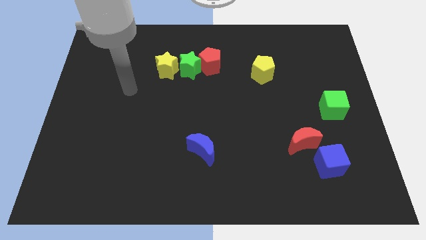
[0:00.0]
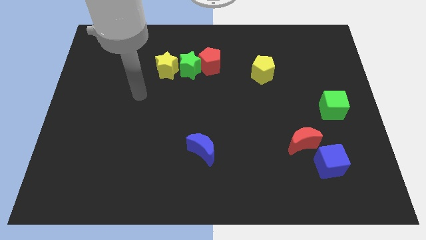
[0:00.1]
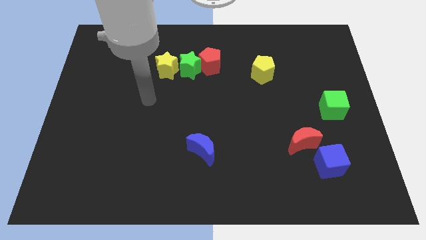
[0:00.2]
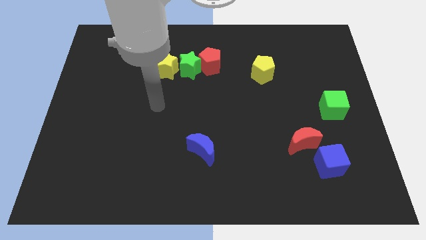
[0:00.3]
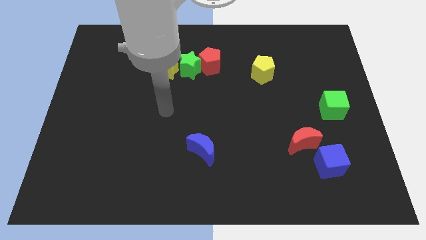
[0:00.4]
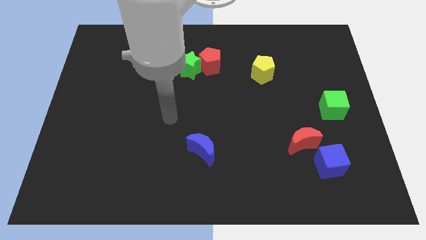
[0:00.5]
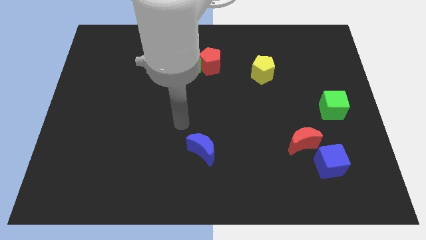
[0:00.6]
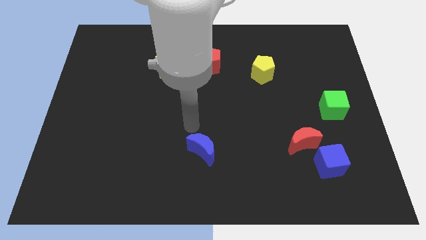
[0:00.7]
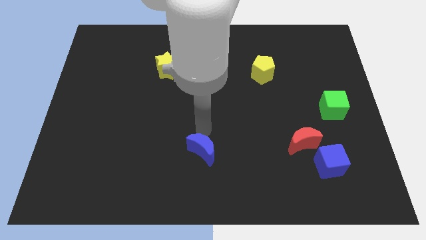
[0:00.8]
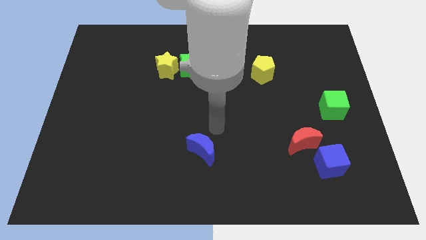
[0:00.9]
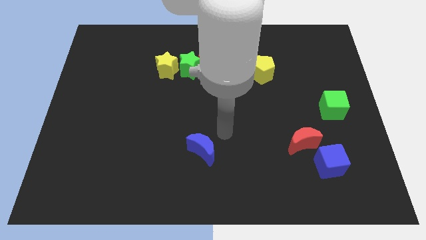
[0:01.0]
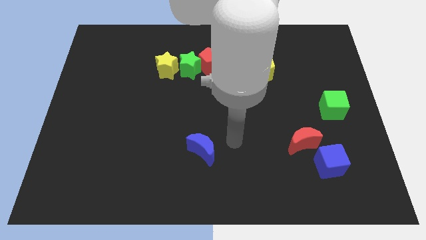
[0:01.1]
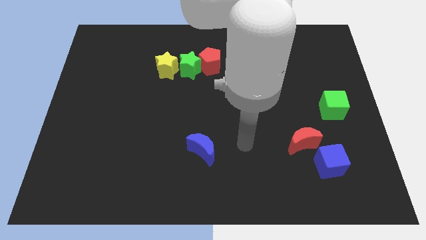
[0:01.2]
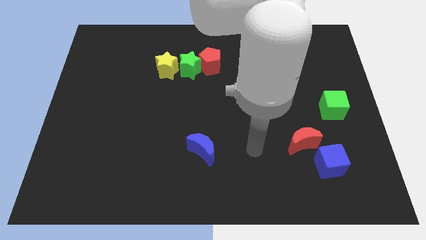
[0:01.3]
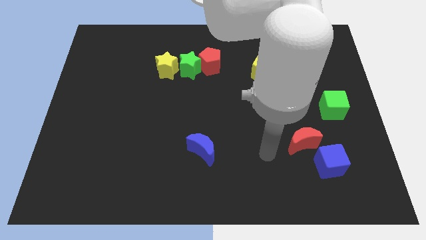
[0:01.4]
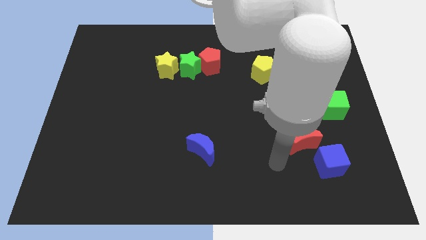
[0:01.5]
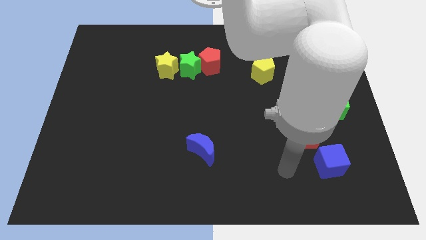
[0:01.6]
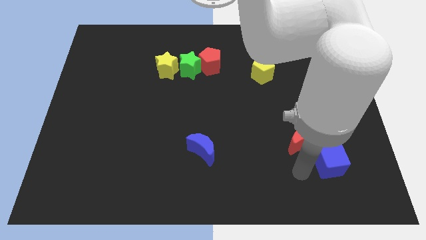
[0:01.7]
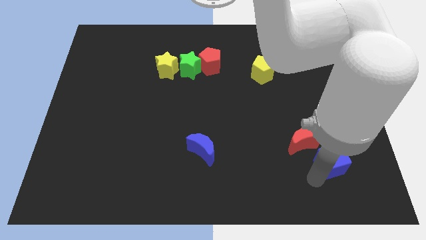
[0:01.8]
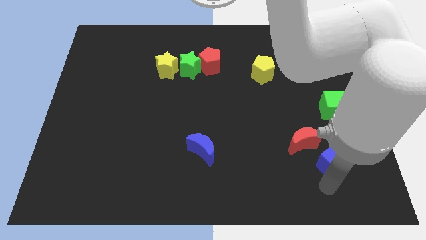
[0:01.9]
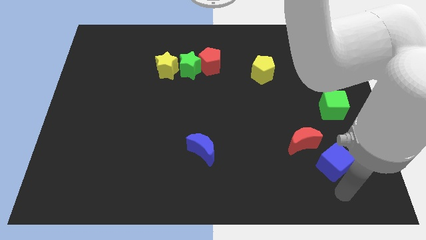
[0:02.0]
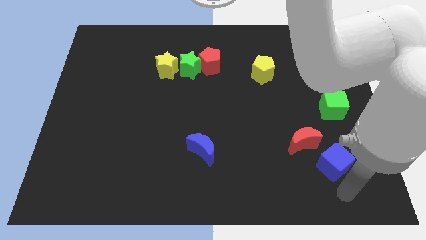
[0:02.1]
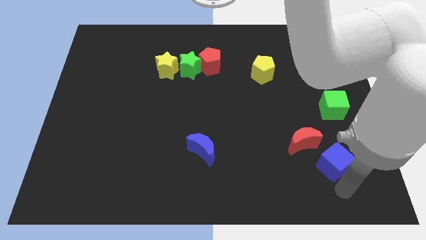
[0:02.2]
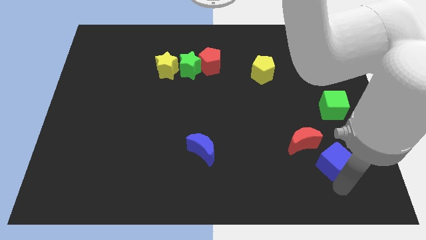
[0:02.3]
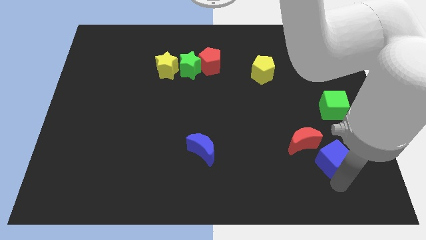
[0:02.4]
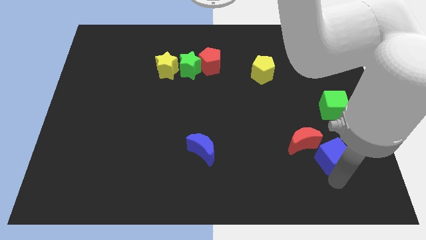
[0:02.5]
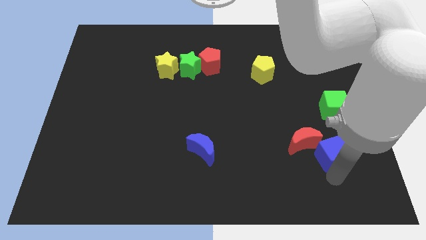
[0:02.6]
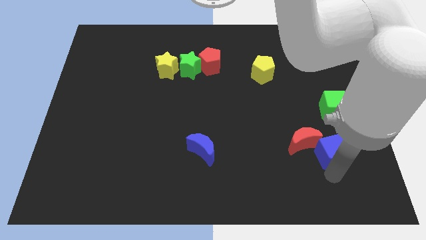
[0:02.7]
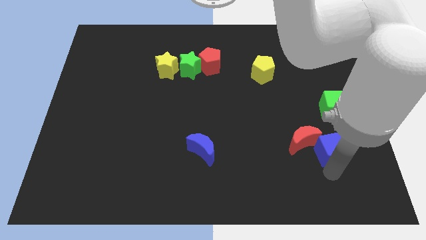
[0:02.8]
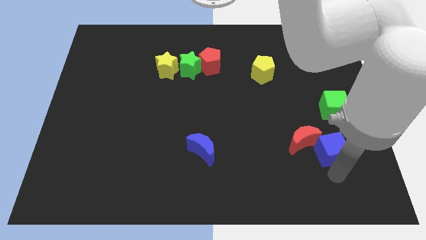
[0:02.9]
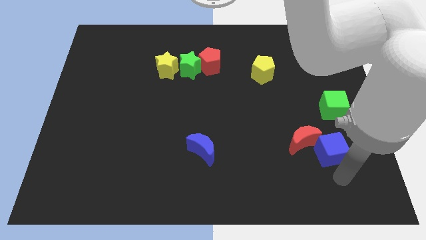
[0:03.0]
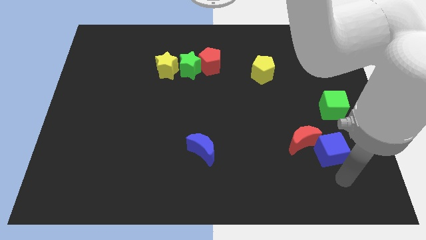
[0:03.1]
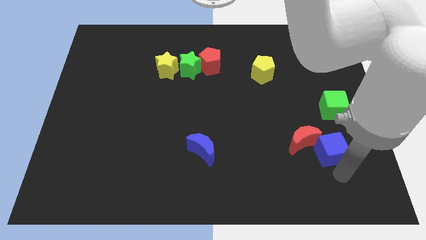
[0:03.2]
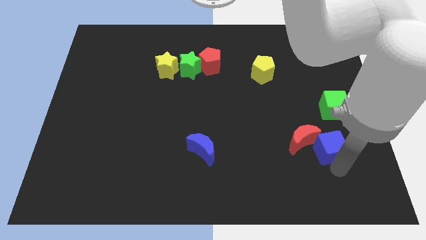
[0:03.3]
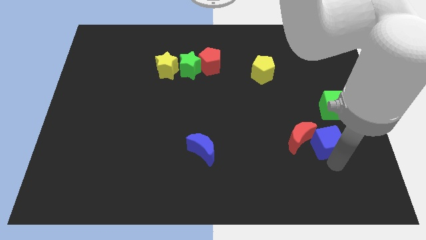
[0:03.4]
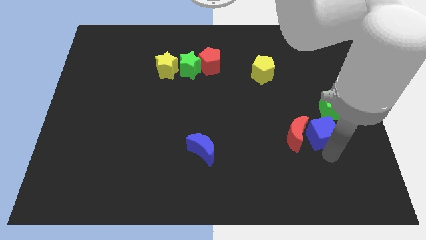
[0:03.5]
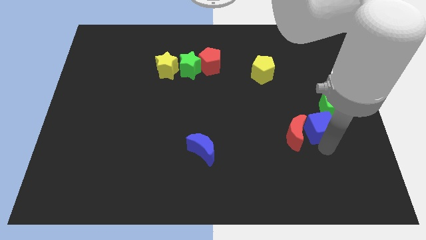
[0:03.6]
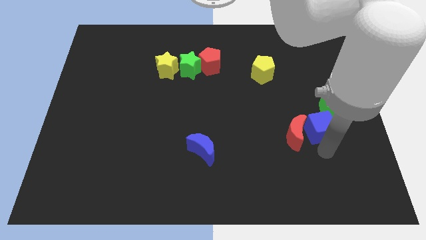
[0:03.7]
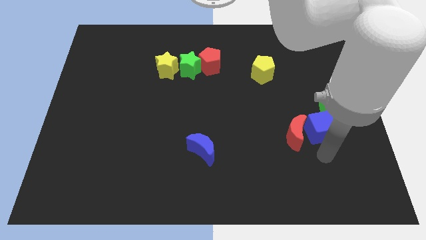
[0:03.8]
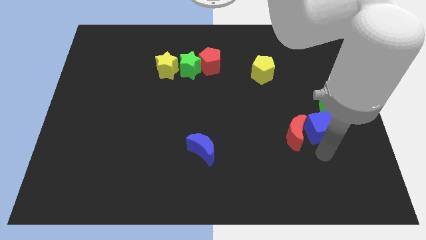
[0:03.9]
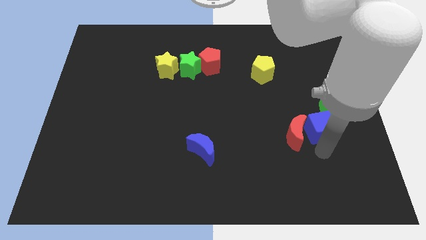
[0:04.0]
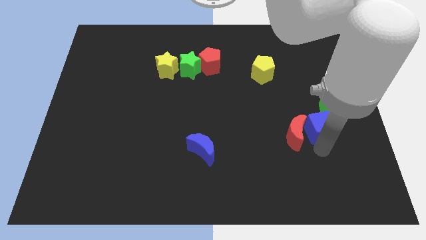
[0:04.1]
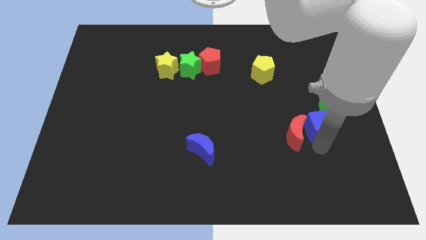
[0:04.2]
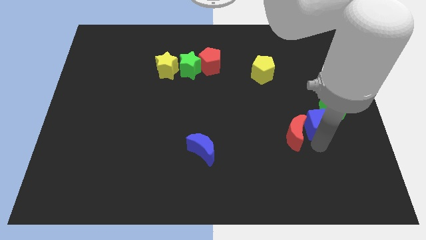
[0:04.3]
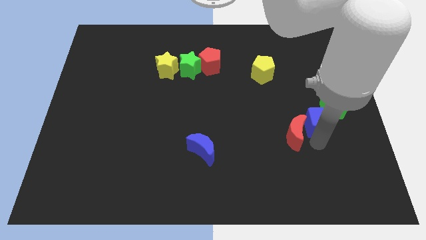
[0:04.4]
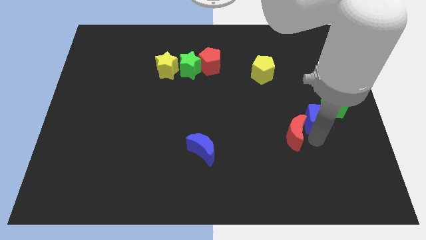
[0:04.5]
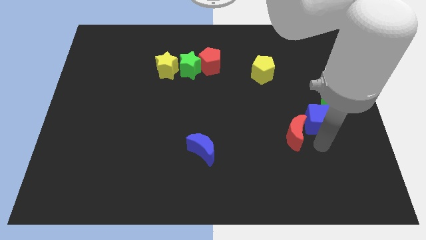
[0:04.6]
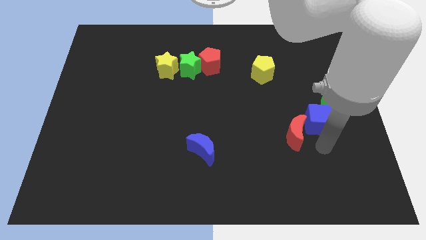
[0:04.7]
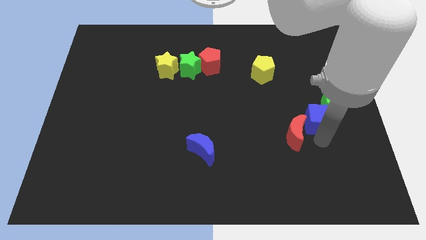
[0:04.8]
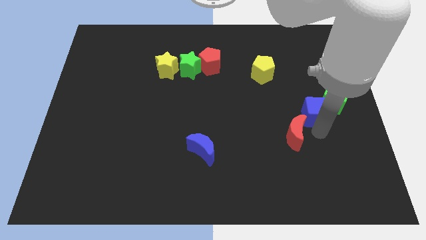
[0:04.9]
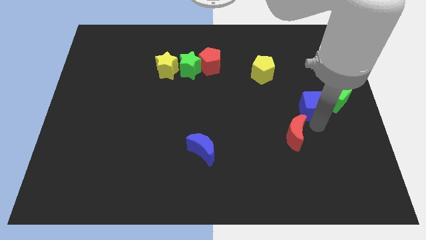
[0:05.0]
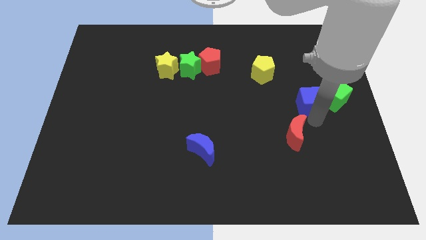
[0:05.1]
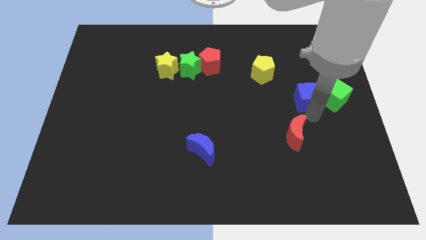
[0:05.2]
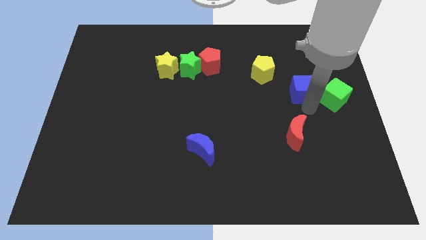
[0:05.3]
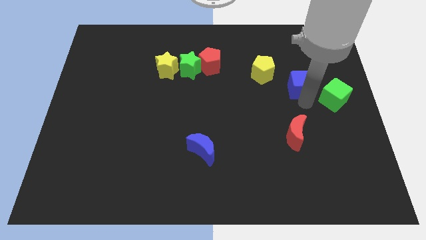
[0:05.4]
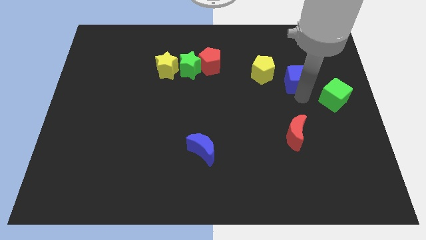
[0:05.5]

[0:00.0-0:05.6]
push the blue cube right of the yellow pentagon
